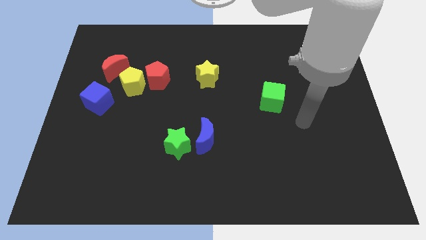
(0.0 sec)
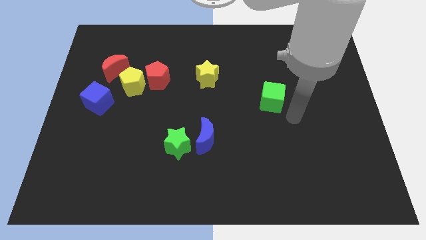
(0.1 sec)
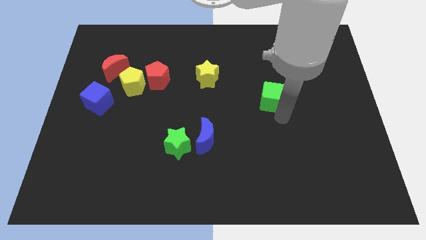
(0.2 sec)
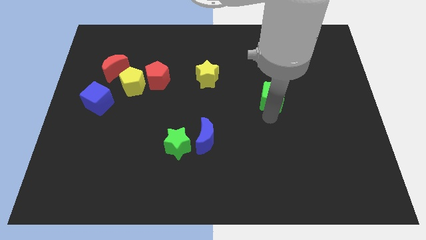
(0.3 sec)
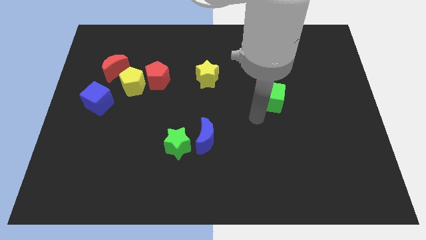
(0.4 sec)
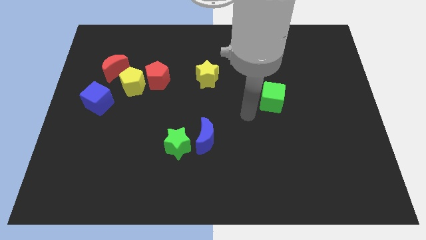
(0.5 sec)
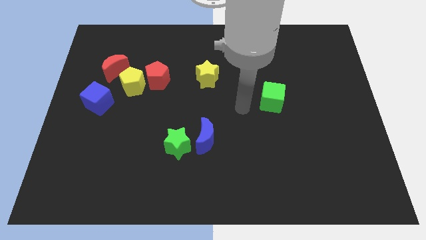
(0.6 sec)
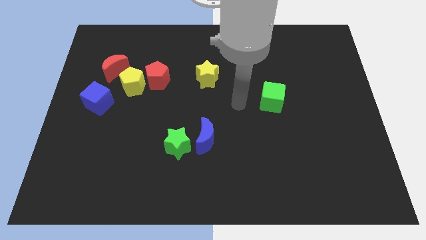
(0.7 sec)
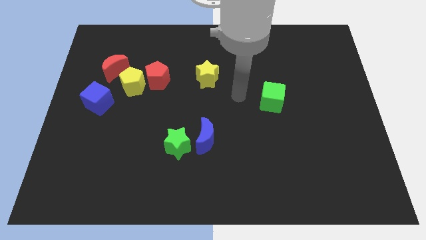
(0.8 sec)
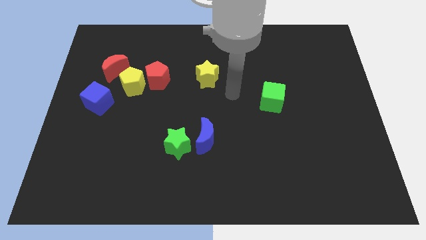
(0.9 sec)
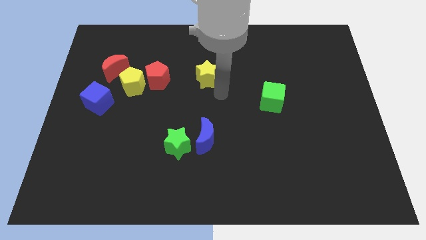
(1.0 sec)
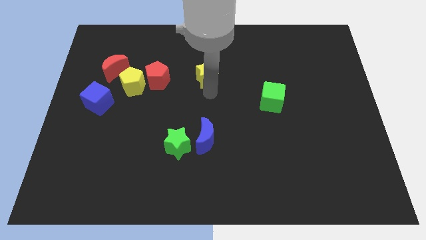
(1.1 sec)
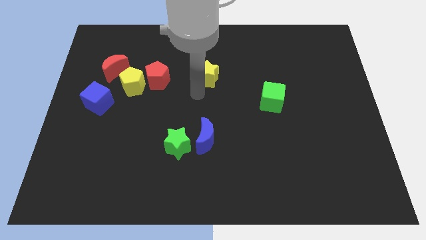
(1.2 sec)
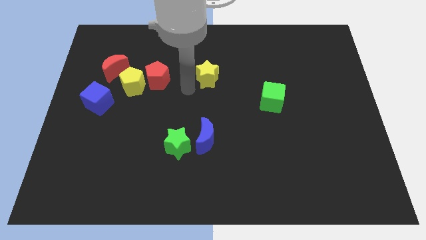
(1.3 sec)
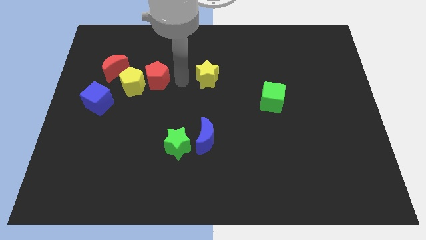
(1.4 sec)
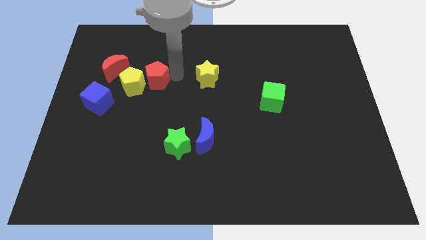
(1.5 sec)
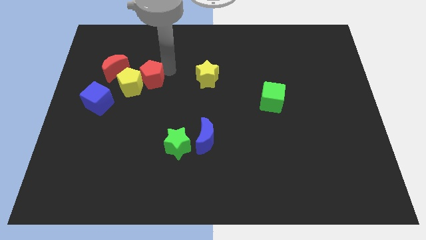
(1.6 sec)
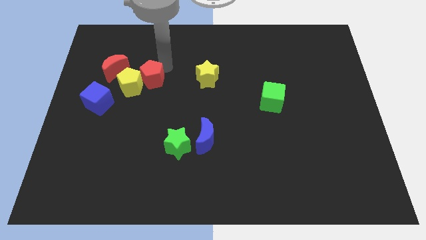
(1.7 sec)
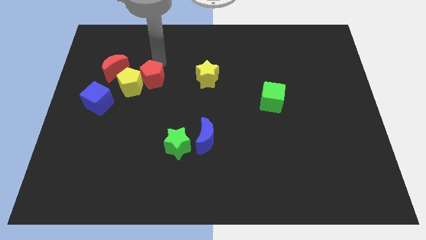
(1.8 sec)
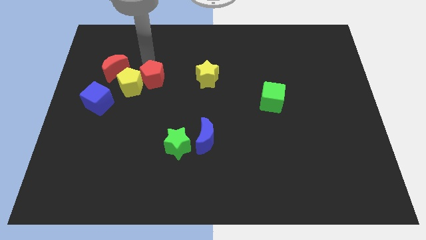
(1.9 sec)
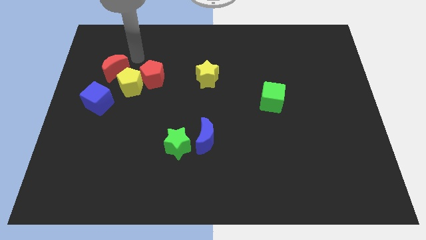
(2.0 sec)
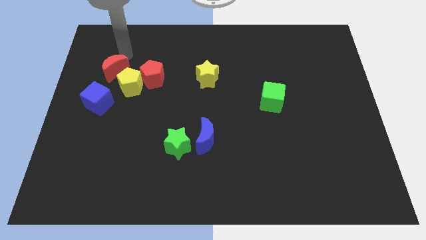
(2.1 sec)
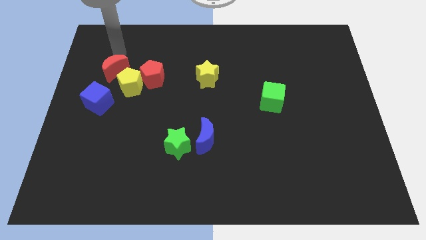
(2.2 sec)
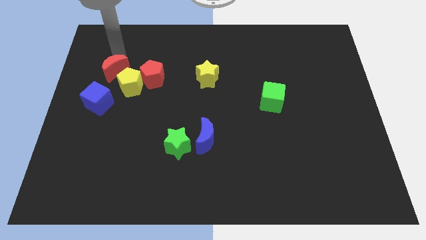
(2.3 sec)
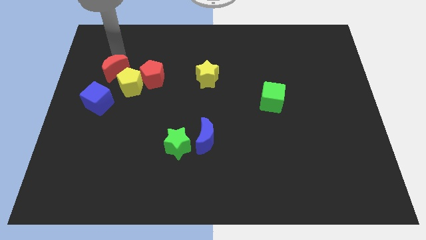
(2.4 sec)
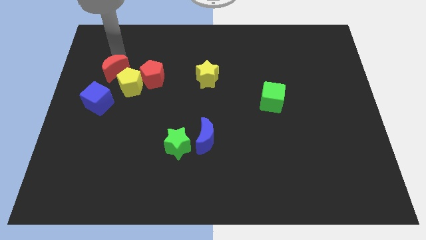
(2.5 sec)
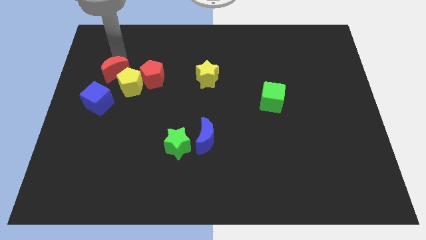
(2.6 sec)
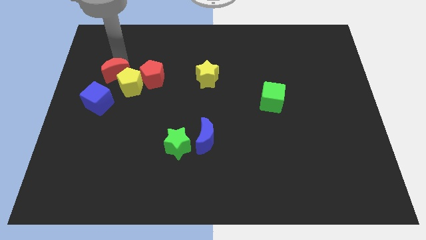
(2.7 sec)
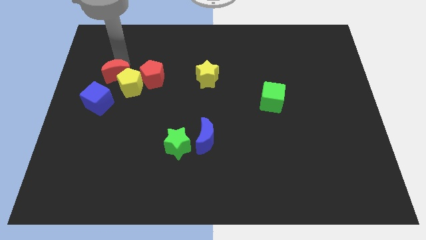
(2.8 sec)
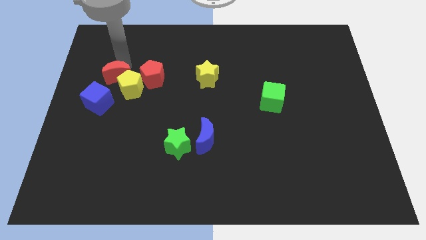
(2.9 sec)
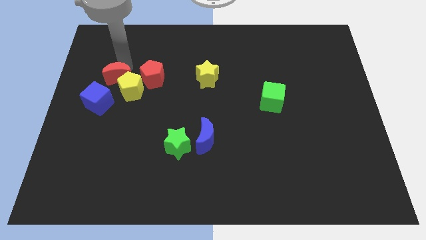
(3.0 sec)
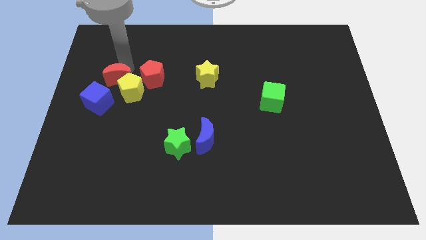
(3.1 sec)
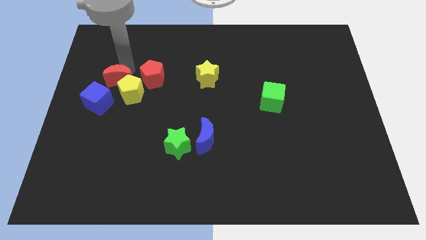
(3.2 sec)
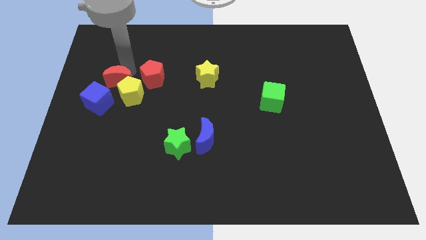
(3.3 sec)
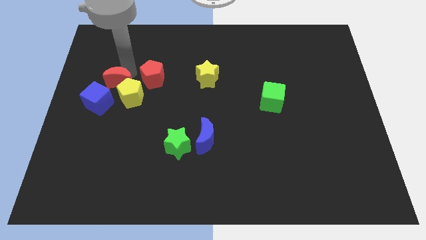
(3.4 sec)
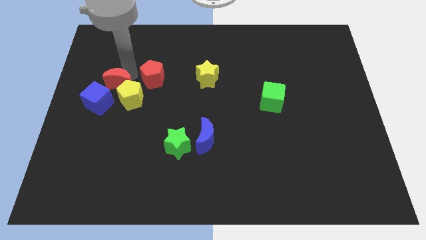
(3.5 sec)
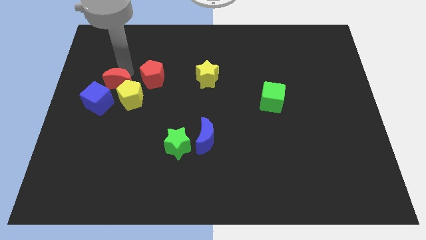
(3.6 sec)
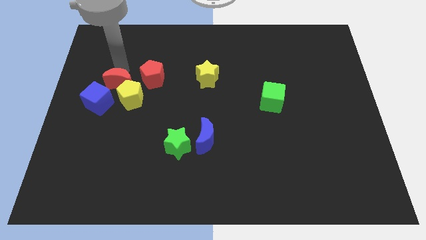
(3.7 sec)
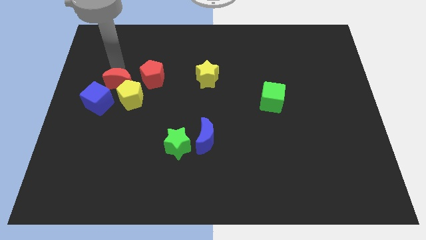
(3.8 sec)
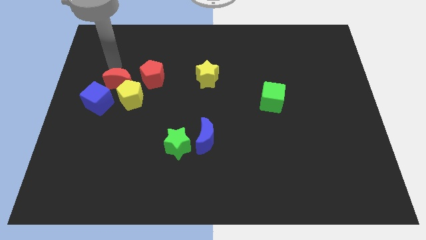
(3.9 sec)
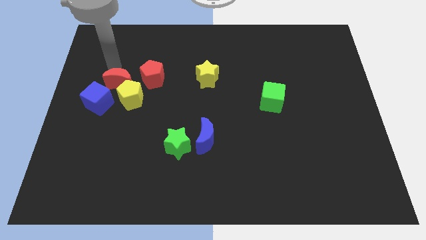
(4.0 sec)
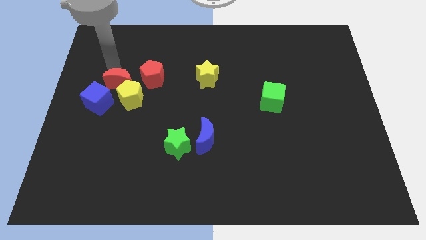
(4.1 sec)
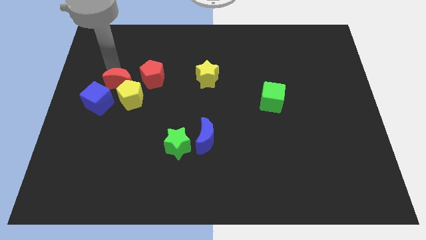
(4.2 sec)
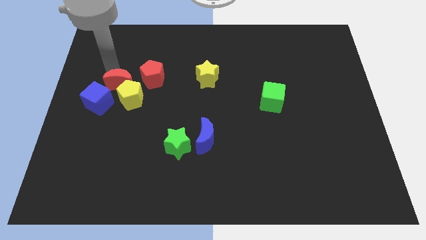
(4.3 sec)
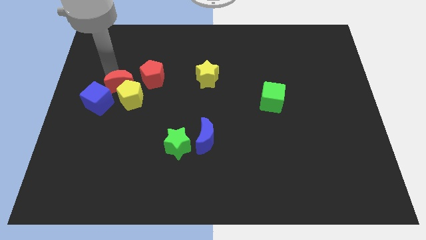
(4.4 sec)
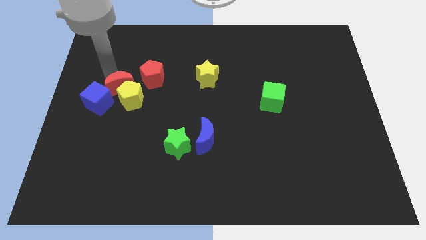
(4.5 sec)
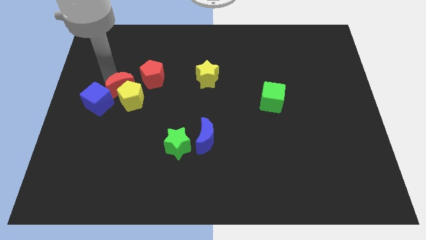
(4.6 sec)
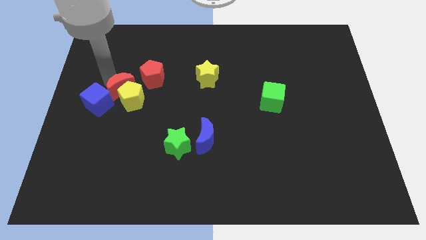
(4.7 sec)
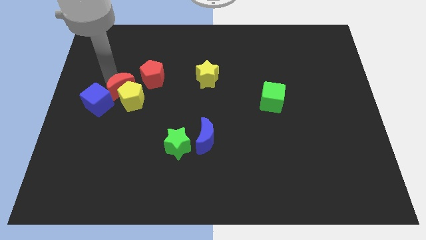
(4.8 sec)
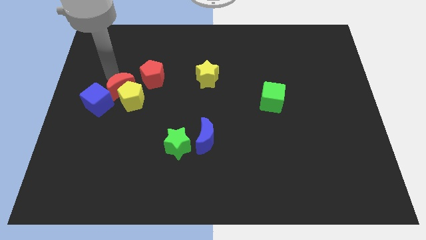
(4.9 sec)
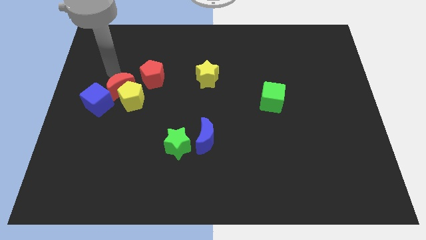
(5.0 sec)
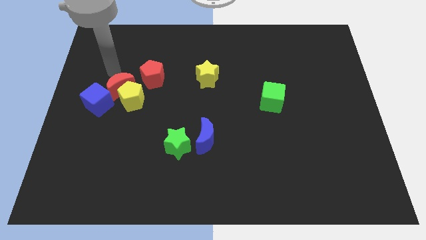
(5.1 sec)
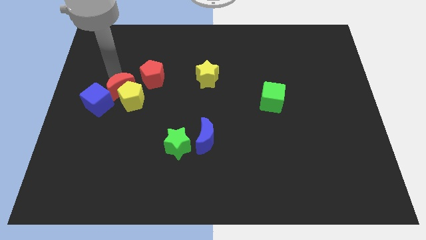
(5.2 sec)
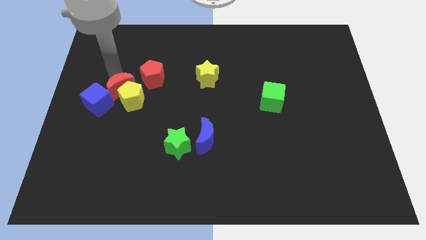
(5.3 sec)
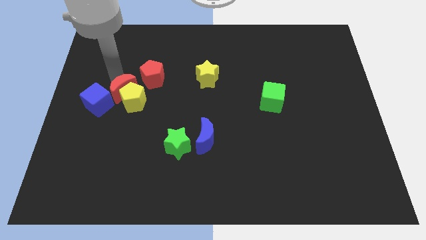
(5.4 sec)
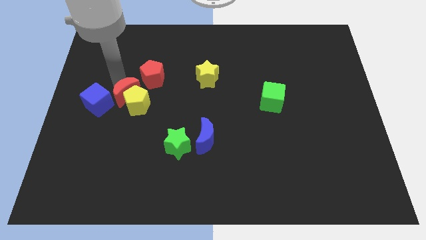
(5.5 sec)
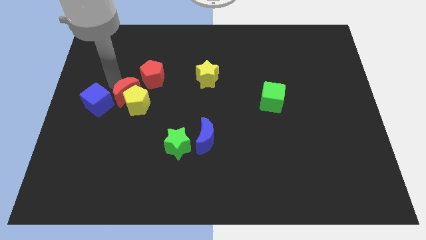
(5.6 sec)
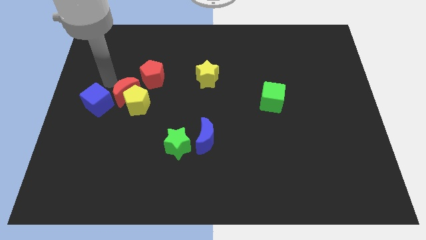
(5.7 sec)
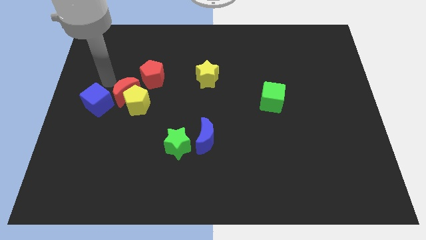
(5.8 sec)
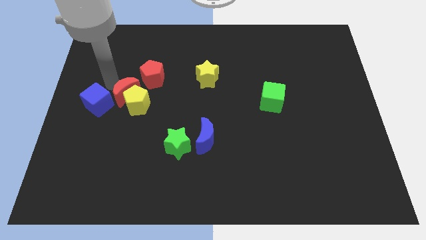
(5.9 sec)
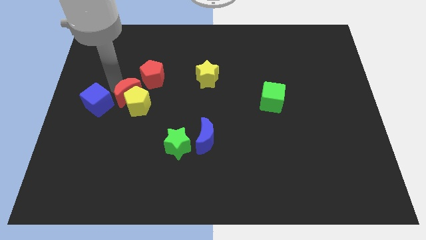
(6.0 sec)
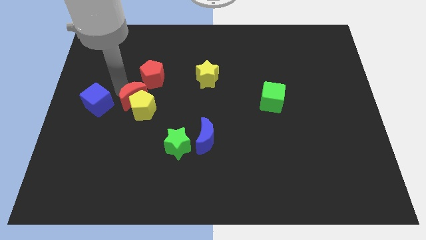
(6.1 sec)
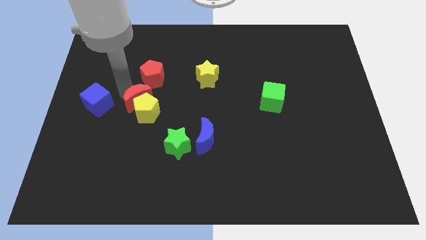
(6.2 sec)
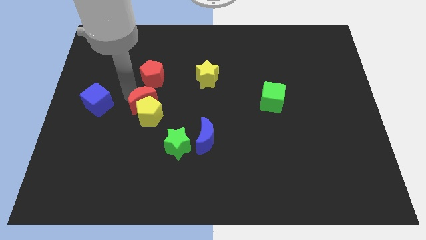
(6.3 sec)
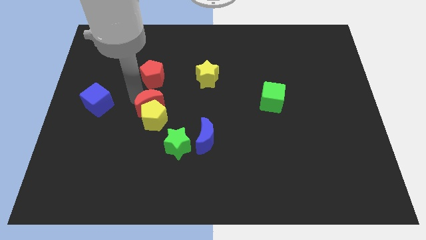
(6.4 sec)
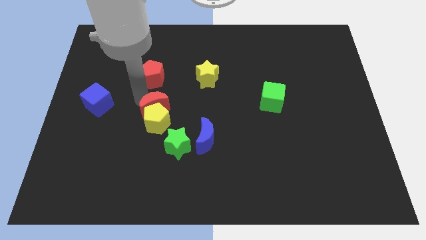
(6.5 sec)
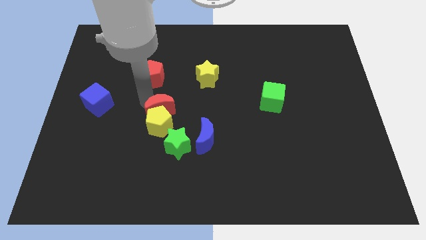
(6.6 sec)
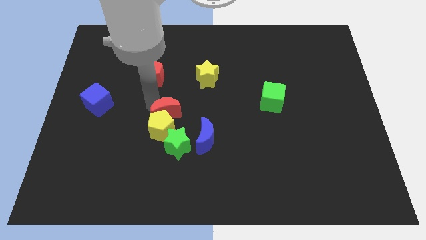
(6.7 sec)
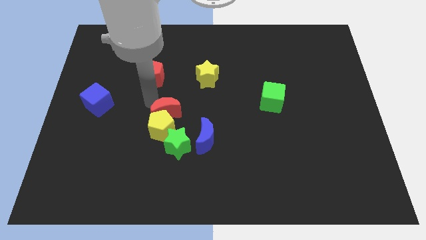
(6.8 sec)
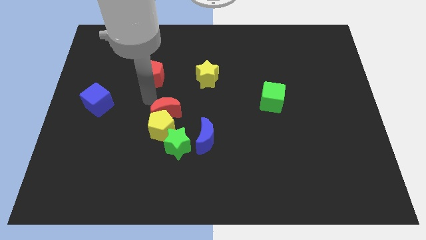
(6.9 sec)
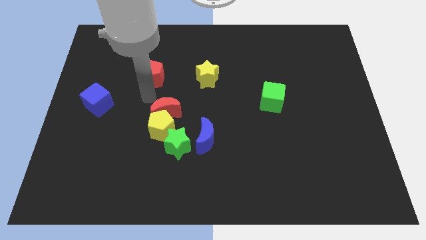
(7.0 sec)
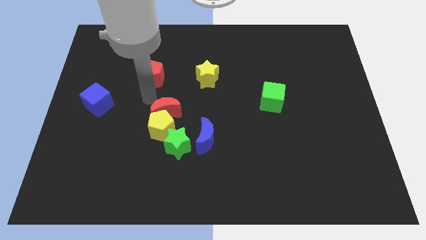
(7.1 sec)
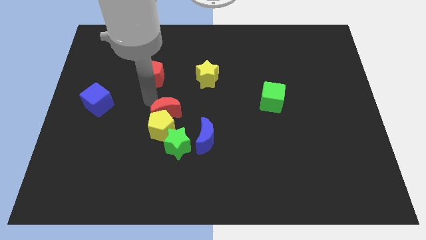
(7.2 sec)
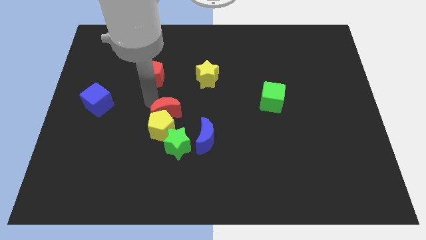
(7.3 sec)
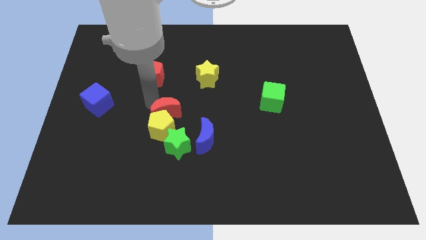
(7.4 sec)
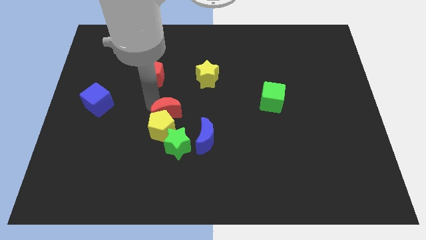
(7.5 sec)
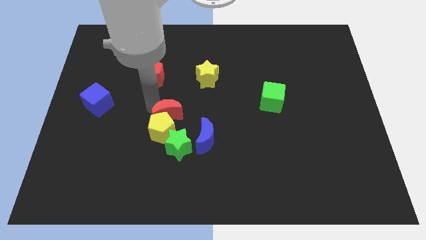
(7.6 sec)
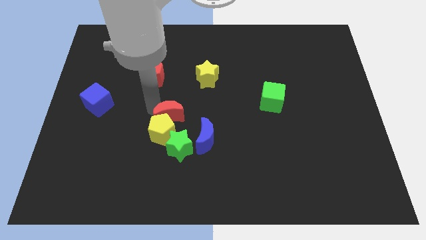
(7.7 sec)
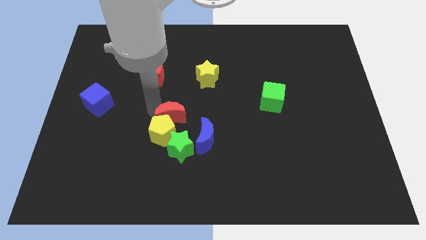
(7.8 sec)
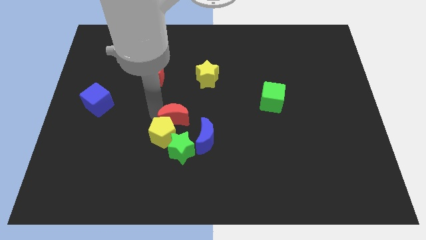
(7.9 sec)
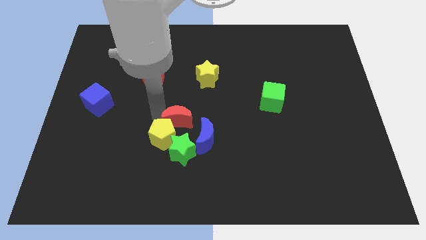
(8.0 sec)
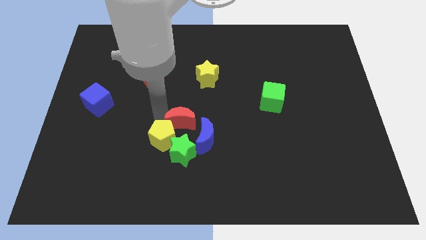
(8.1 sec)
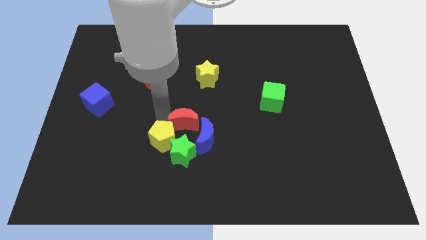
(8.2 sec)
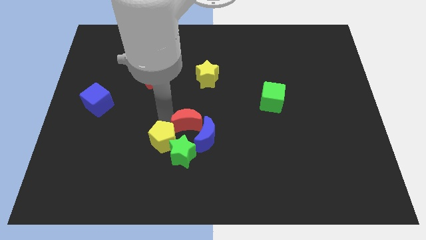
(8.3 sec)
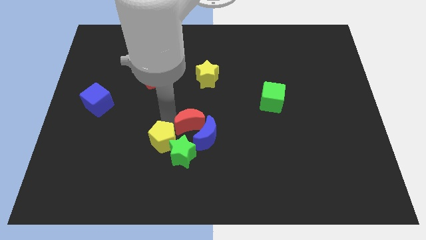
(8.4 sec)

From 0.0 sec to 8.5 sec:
move the red moon to the top right of the green star
